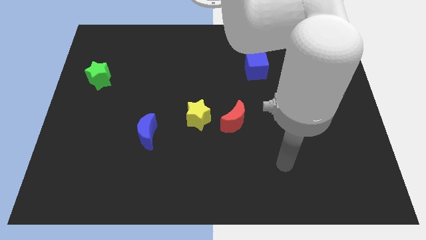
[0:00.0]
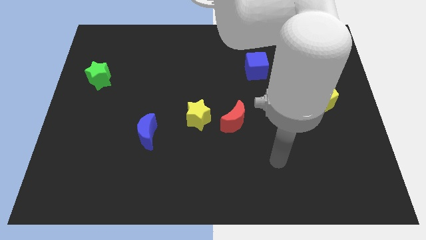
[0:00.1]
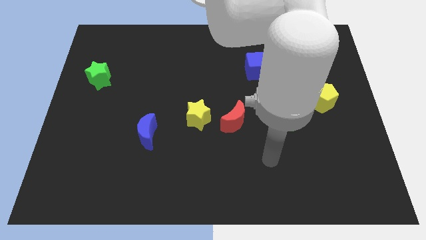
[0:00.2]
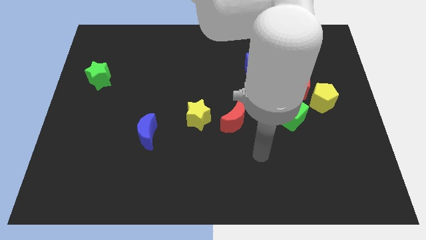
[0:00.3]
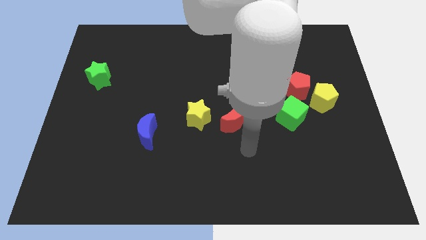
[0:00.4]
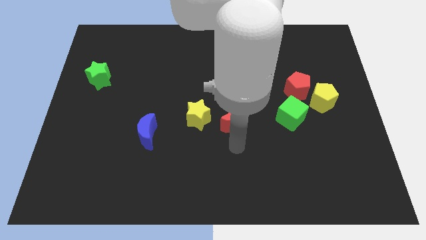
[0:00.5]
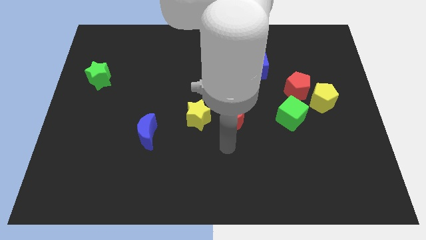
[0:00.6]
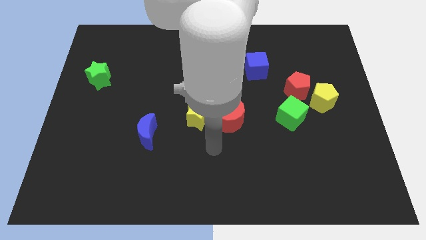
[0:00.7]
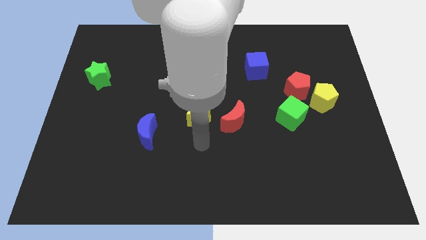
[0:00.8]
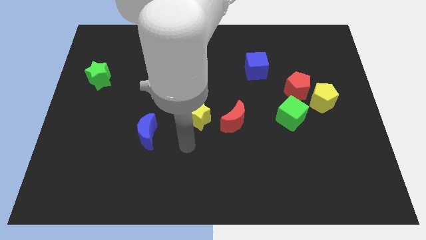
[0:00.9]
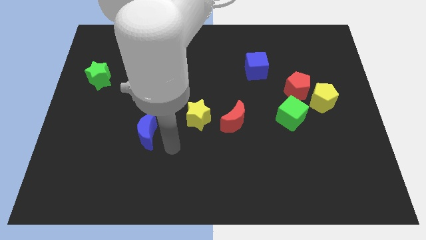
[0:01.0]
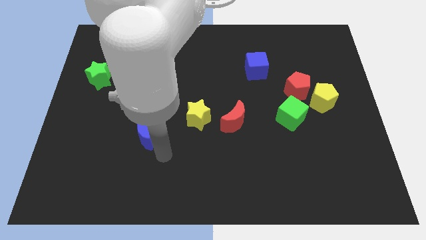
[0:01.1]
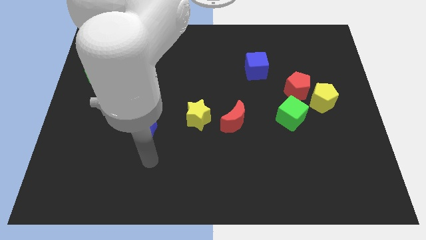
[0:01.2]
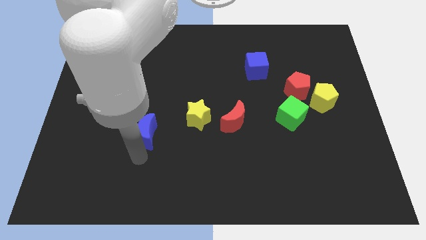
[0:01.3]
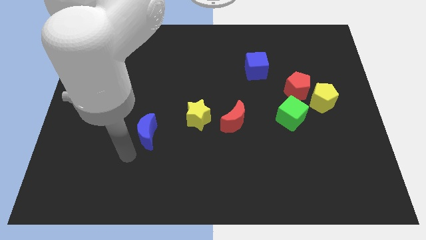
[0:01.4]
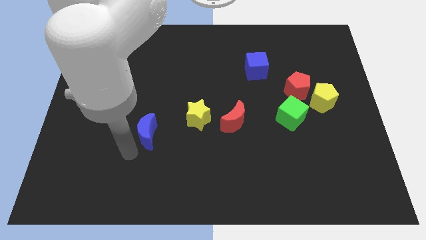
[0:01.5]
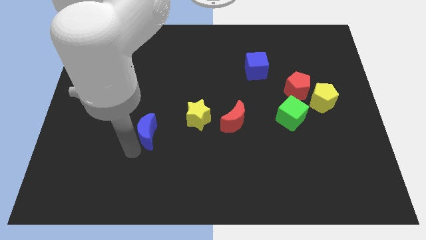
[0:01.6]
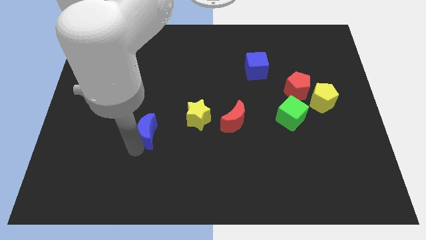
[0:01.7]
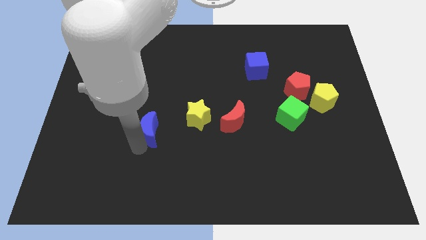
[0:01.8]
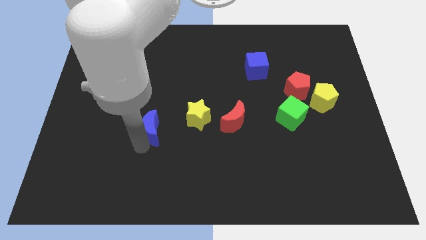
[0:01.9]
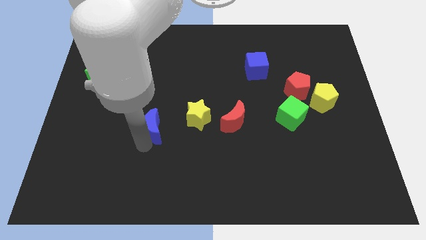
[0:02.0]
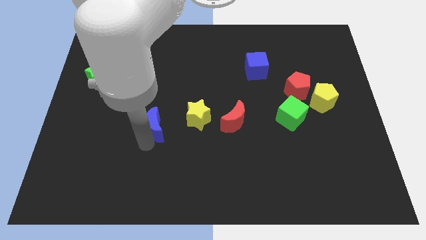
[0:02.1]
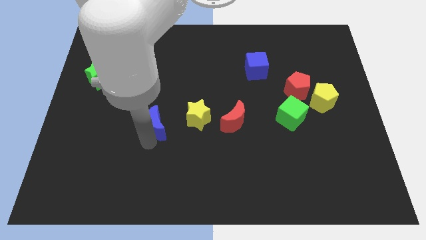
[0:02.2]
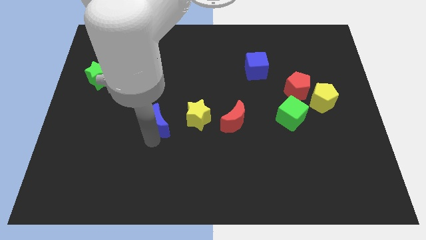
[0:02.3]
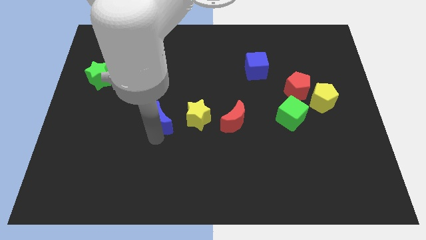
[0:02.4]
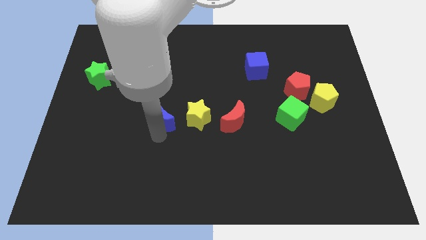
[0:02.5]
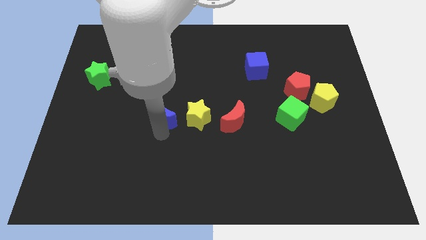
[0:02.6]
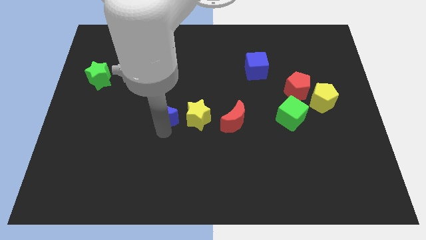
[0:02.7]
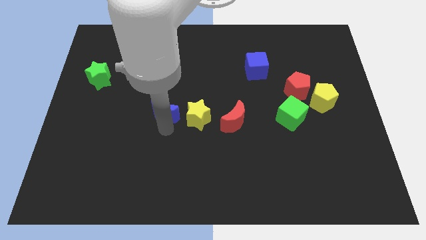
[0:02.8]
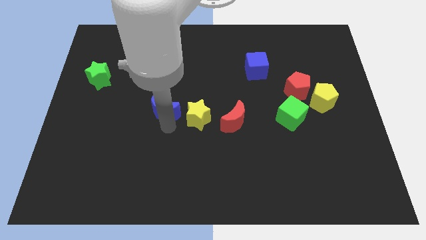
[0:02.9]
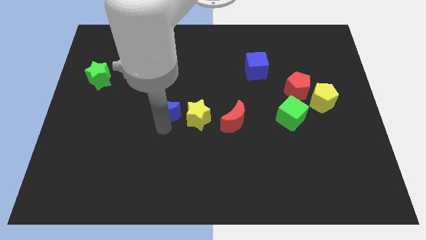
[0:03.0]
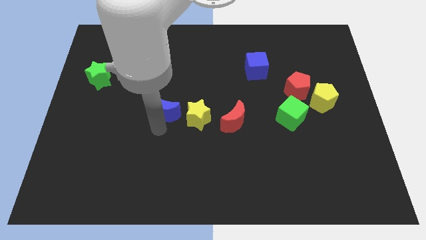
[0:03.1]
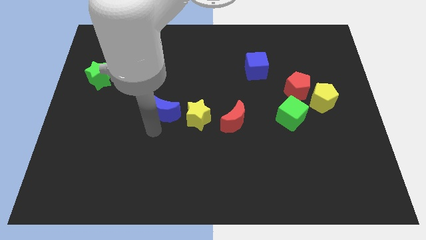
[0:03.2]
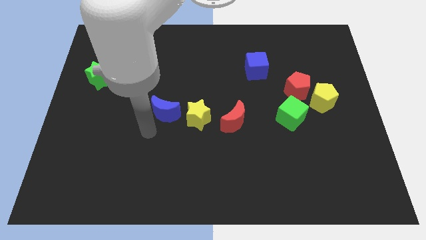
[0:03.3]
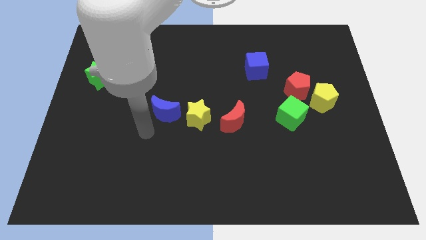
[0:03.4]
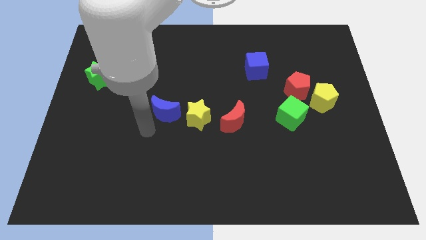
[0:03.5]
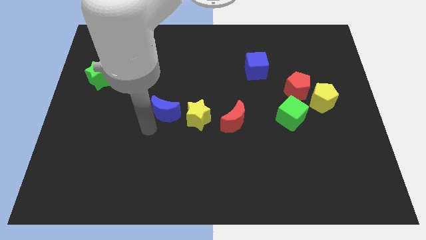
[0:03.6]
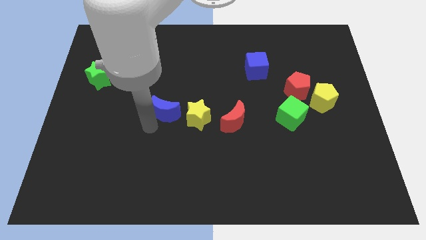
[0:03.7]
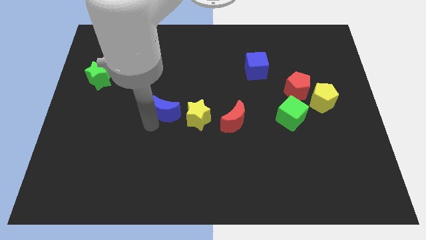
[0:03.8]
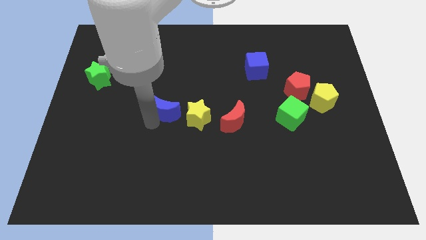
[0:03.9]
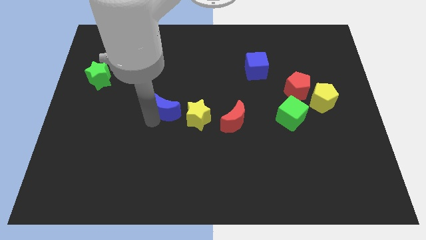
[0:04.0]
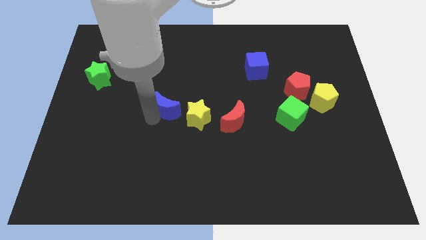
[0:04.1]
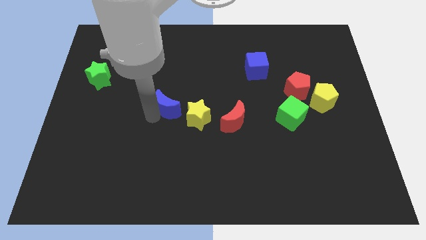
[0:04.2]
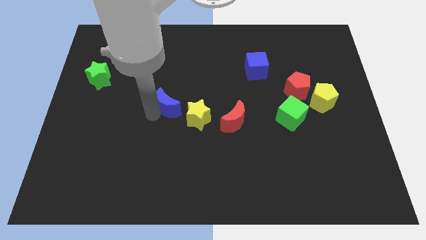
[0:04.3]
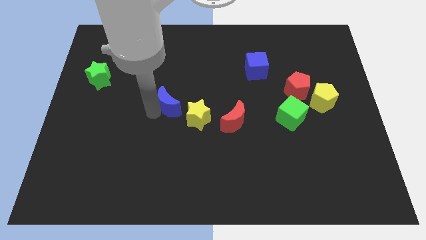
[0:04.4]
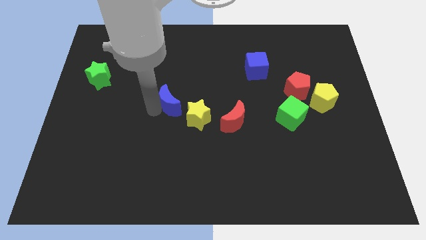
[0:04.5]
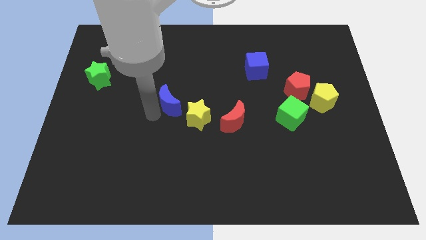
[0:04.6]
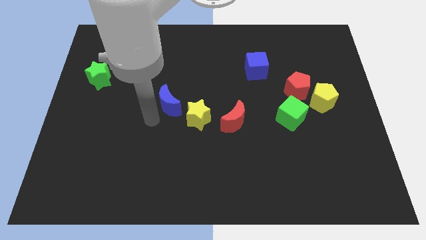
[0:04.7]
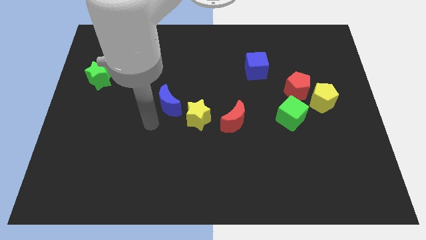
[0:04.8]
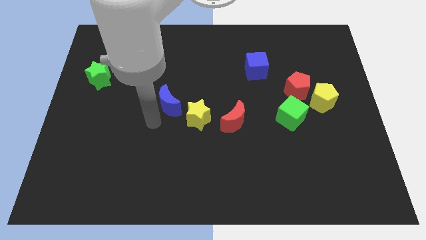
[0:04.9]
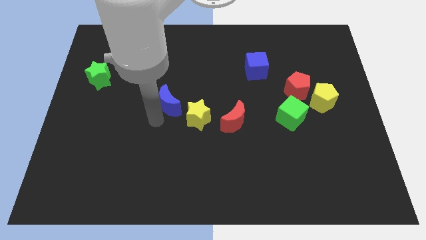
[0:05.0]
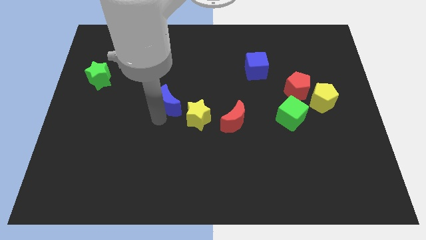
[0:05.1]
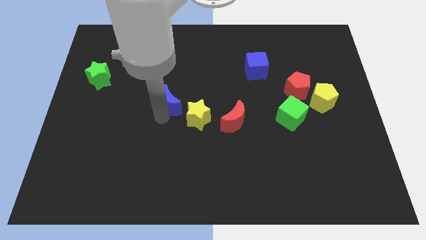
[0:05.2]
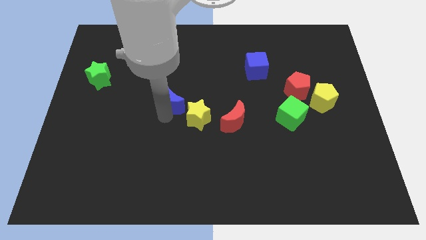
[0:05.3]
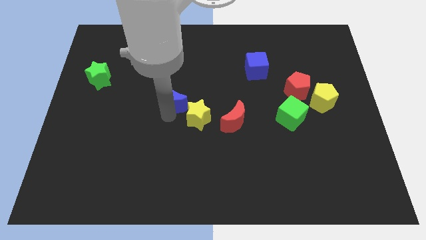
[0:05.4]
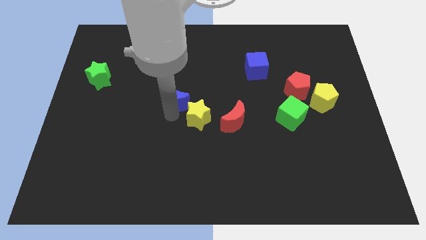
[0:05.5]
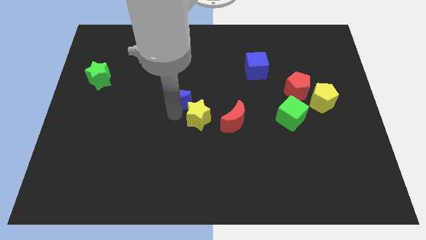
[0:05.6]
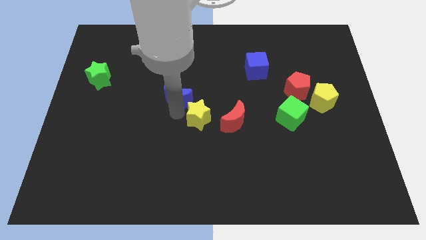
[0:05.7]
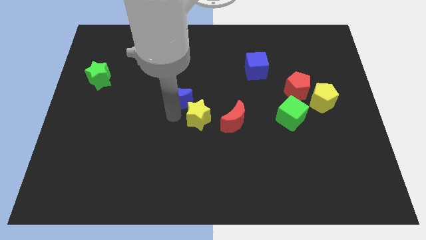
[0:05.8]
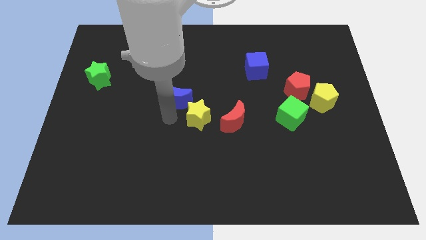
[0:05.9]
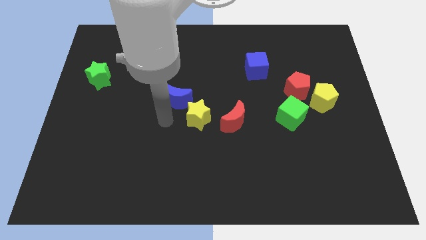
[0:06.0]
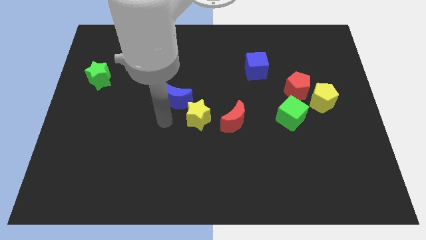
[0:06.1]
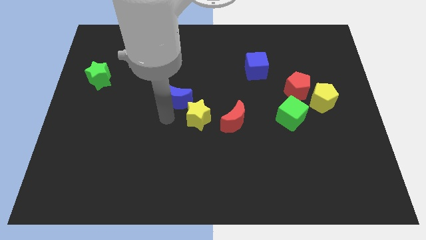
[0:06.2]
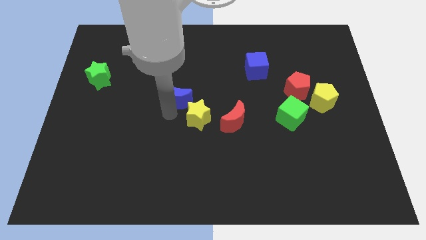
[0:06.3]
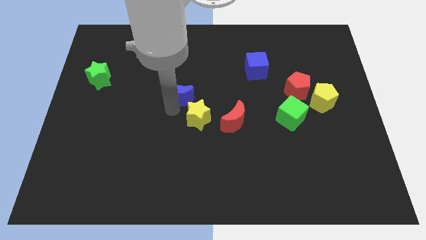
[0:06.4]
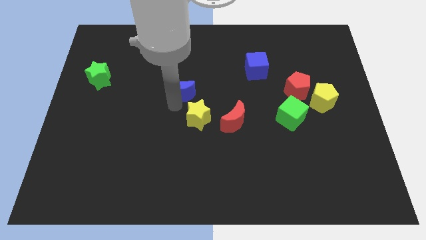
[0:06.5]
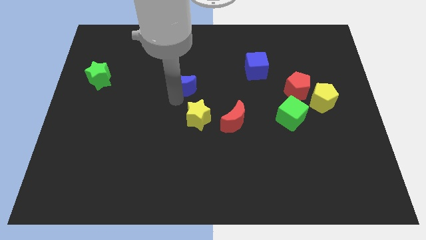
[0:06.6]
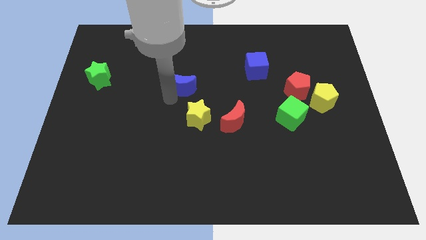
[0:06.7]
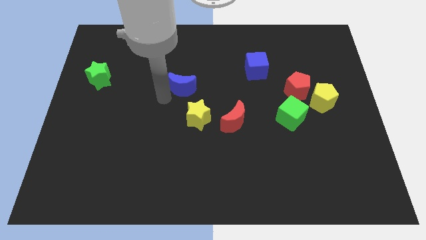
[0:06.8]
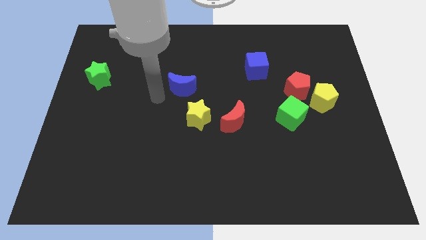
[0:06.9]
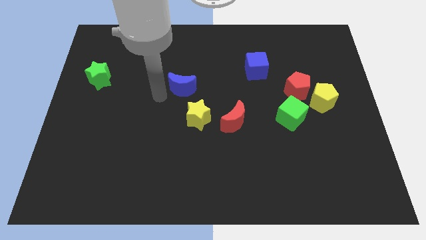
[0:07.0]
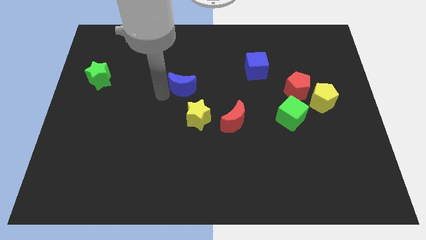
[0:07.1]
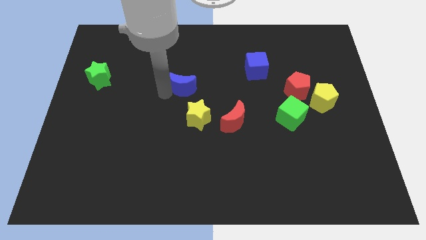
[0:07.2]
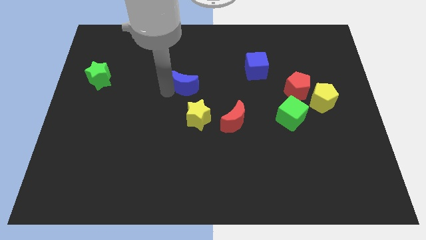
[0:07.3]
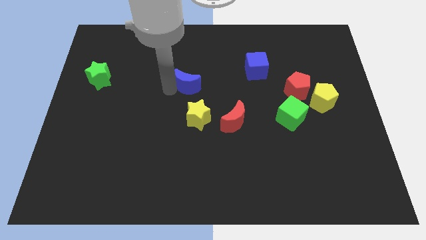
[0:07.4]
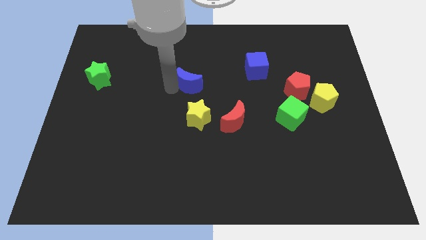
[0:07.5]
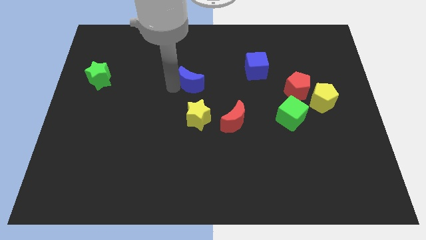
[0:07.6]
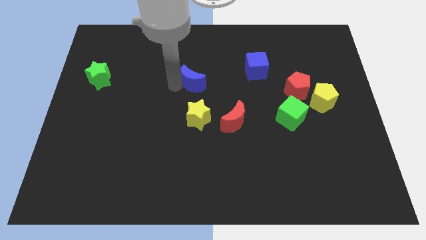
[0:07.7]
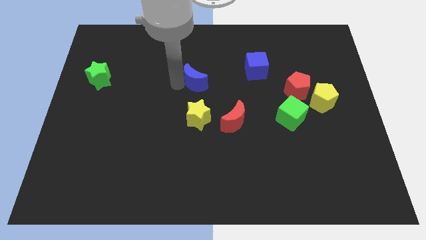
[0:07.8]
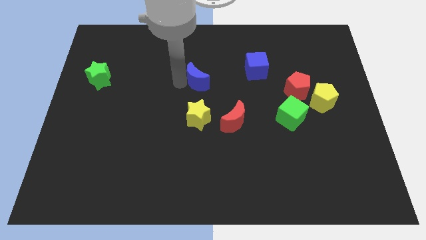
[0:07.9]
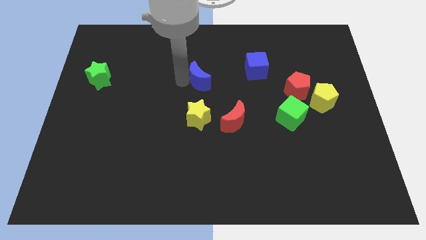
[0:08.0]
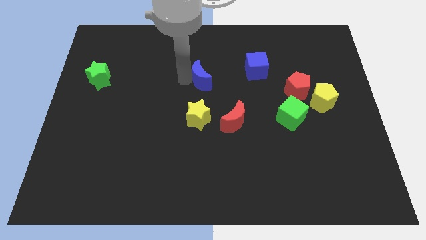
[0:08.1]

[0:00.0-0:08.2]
slide the blue moon to the left of the blue cube
